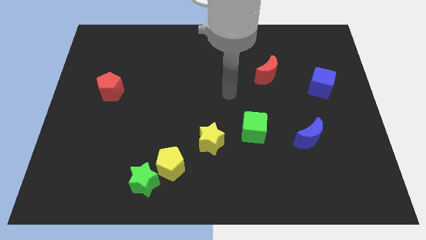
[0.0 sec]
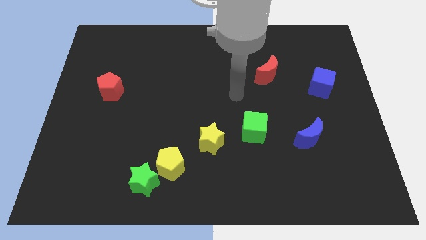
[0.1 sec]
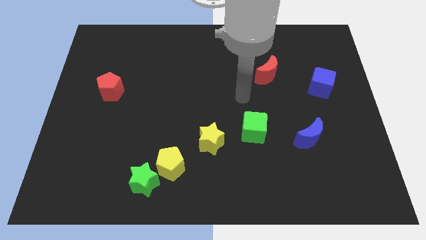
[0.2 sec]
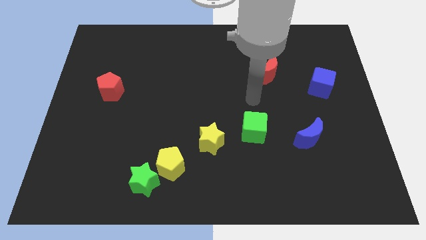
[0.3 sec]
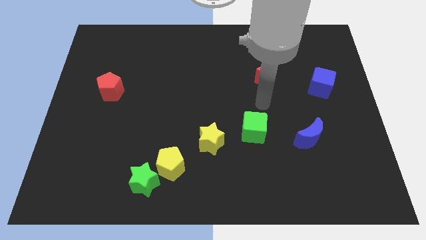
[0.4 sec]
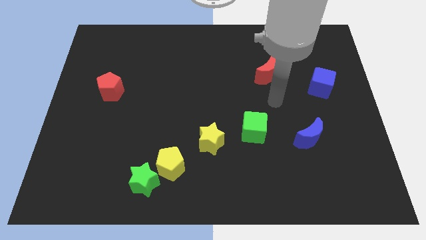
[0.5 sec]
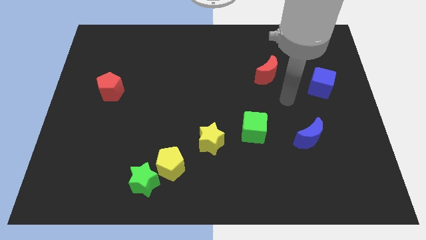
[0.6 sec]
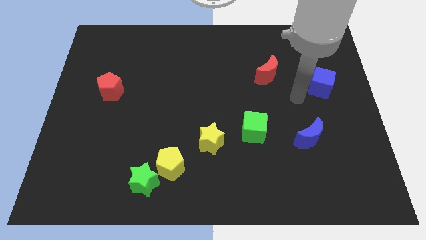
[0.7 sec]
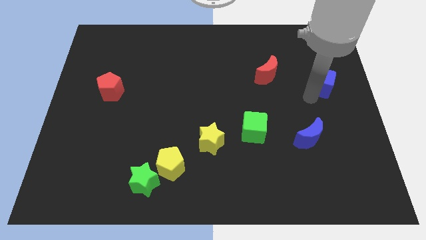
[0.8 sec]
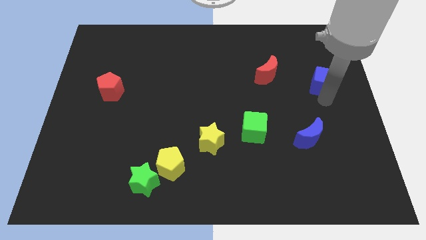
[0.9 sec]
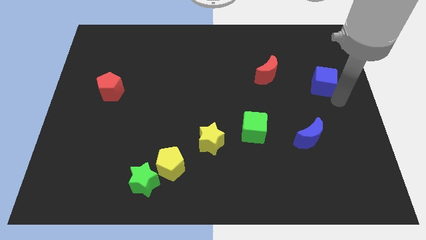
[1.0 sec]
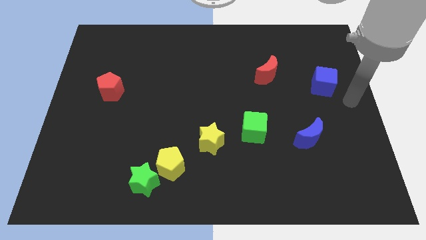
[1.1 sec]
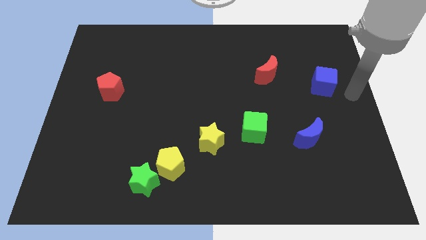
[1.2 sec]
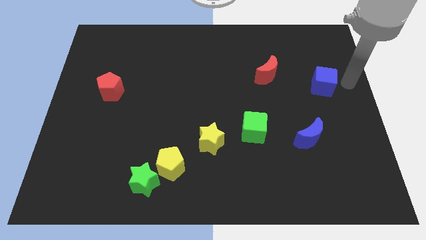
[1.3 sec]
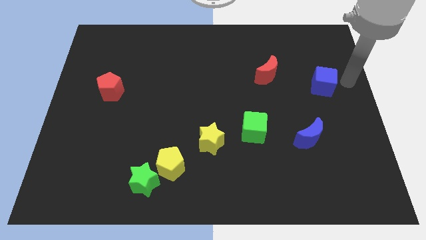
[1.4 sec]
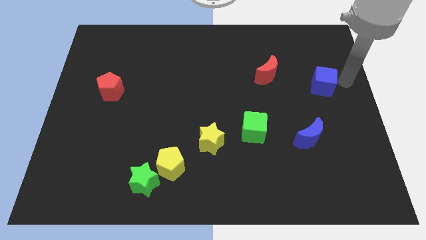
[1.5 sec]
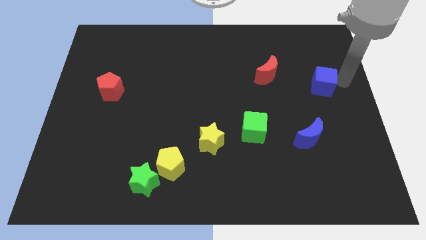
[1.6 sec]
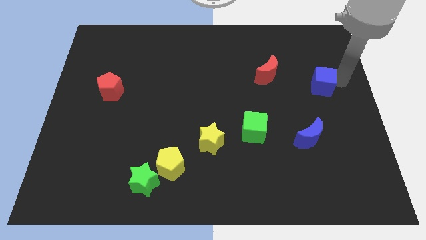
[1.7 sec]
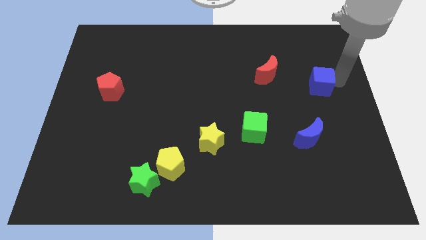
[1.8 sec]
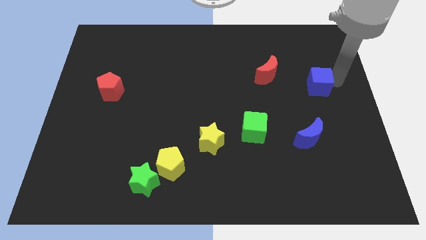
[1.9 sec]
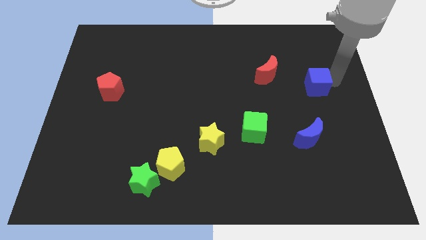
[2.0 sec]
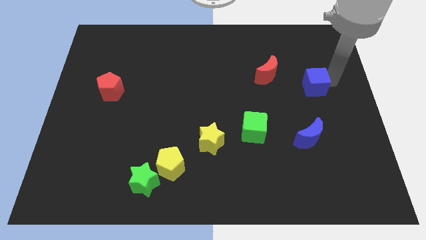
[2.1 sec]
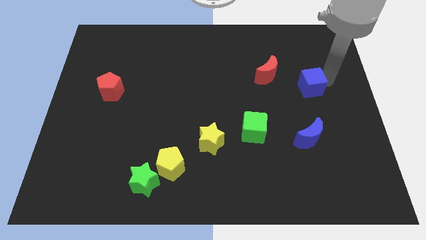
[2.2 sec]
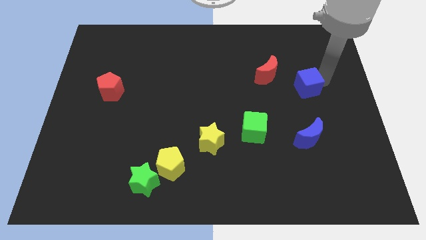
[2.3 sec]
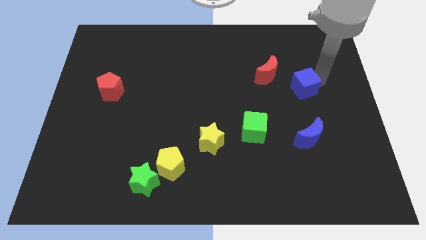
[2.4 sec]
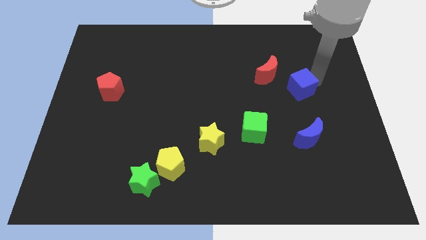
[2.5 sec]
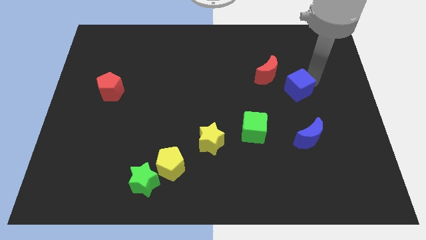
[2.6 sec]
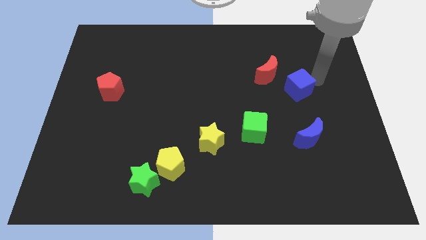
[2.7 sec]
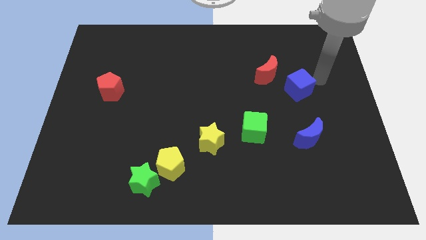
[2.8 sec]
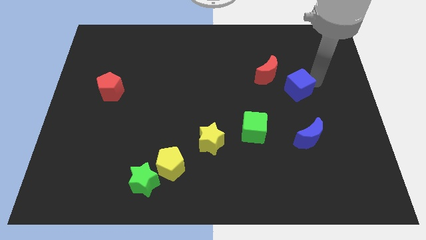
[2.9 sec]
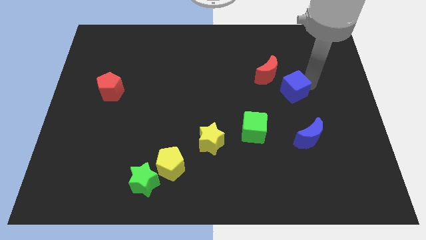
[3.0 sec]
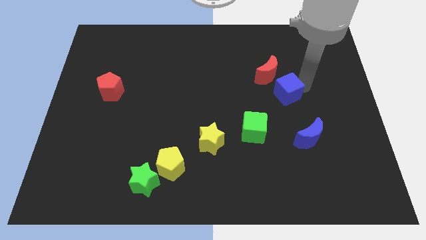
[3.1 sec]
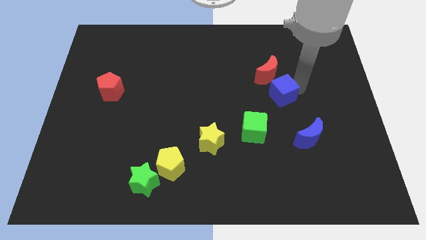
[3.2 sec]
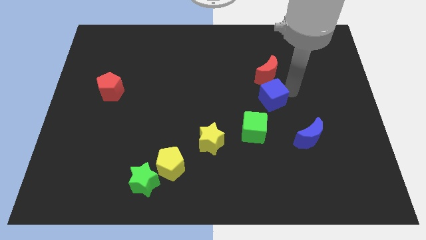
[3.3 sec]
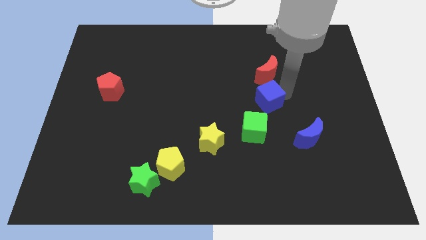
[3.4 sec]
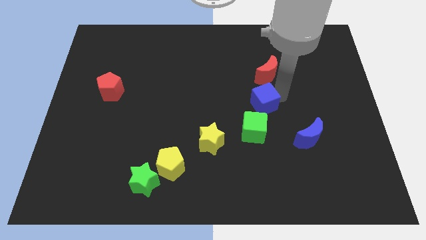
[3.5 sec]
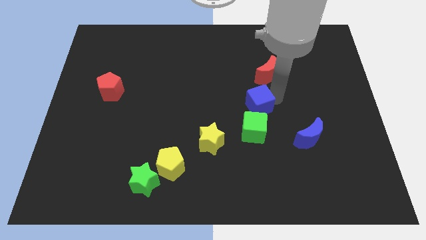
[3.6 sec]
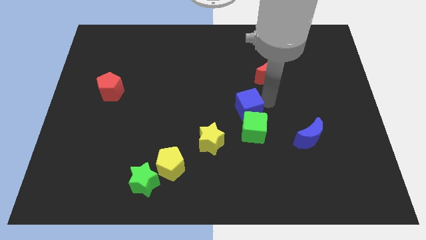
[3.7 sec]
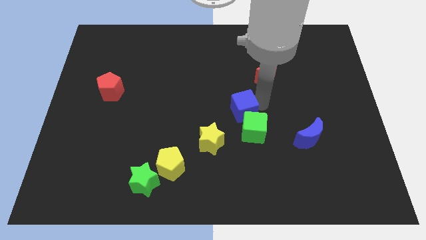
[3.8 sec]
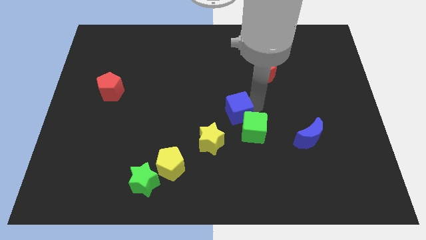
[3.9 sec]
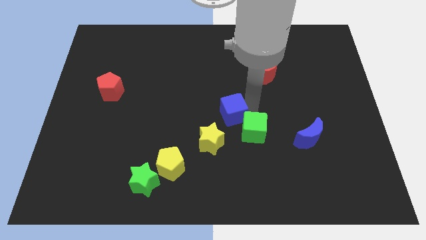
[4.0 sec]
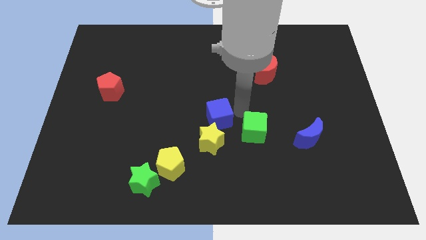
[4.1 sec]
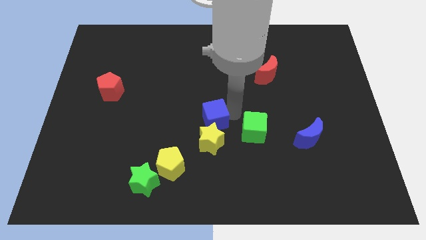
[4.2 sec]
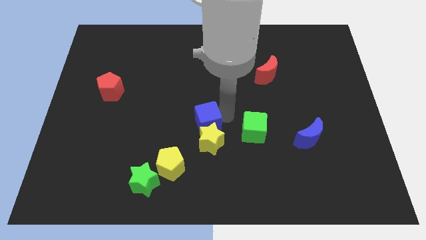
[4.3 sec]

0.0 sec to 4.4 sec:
put the blue cube to the top left of the yellow star

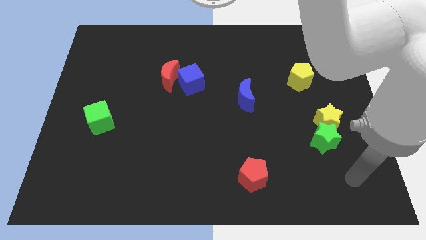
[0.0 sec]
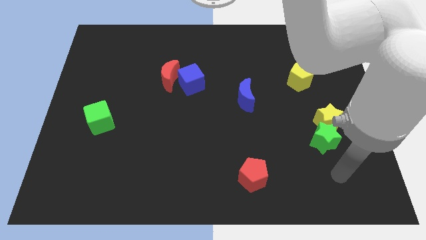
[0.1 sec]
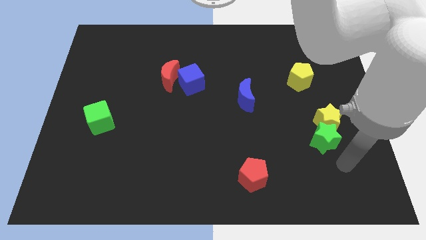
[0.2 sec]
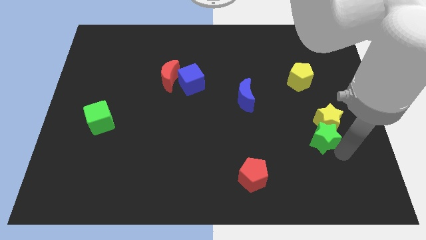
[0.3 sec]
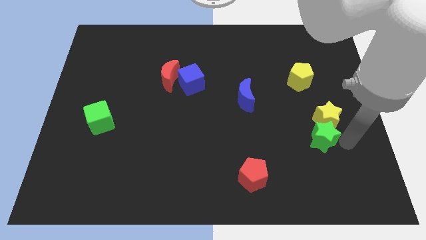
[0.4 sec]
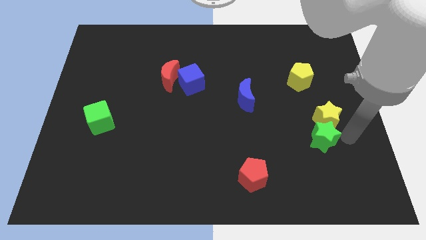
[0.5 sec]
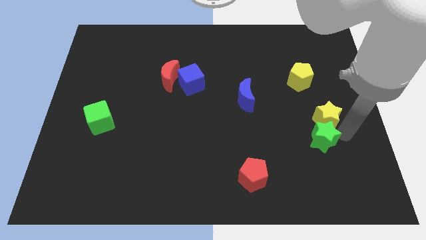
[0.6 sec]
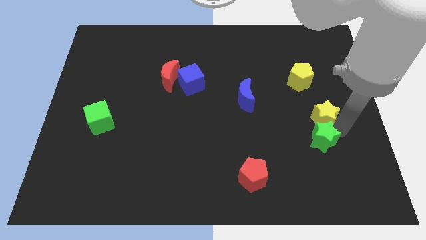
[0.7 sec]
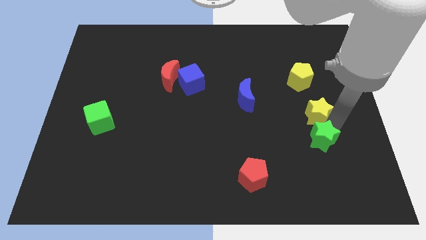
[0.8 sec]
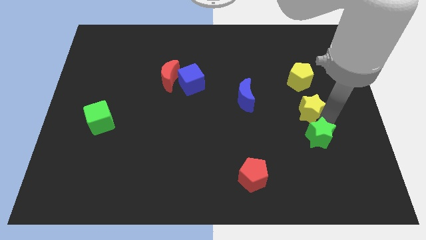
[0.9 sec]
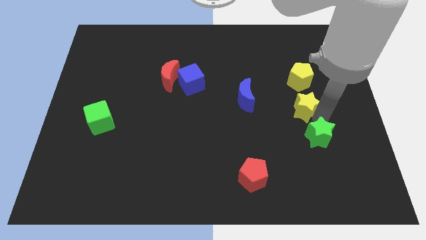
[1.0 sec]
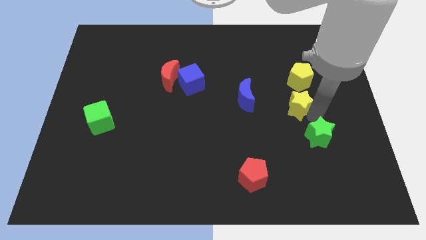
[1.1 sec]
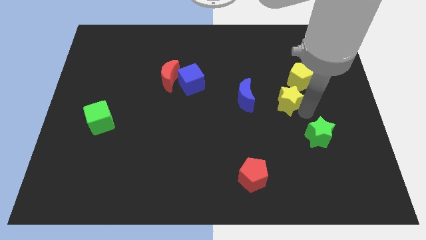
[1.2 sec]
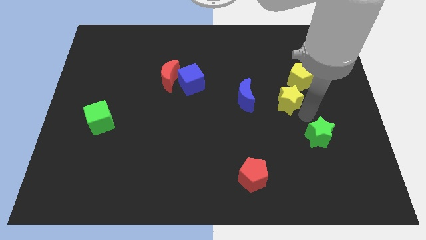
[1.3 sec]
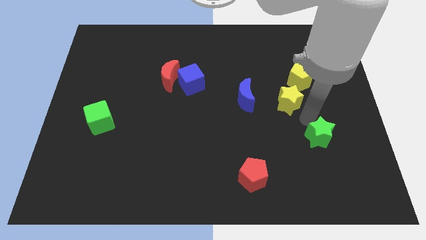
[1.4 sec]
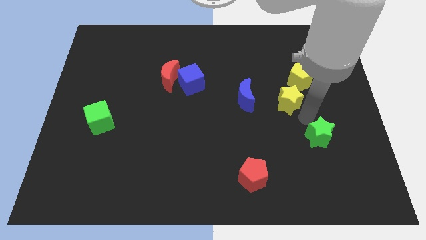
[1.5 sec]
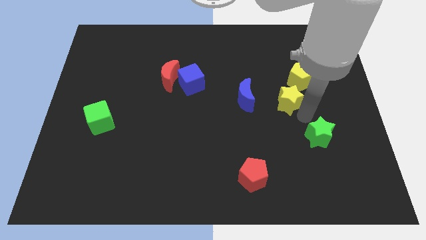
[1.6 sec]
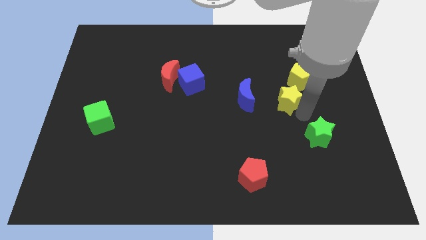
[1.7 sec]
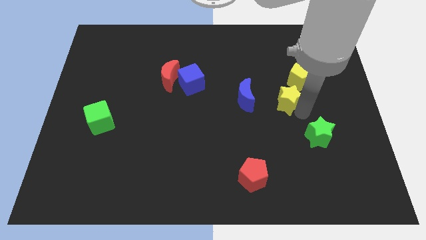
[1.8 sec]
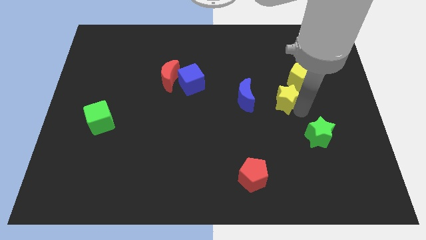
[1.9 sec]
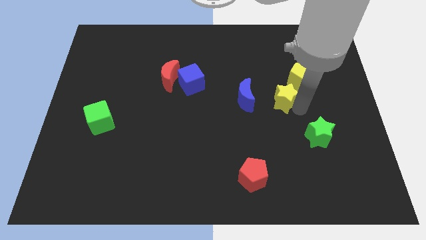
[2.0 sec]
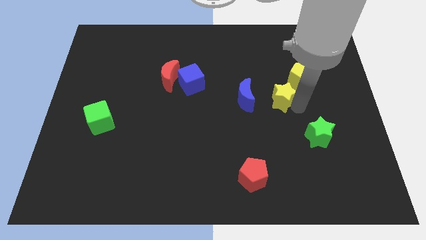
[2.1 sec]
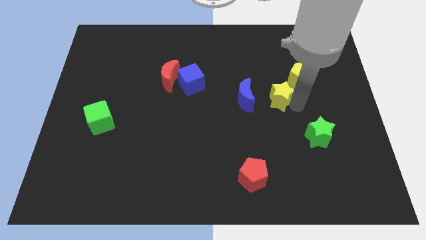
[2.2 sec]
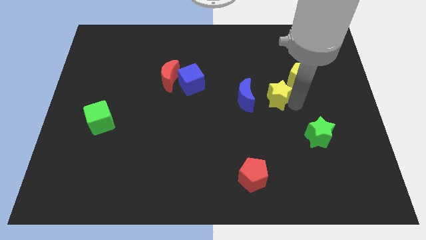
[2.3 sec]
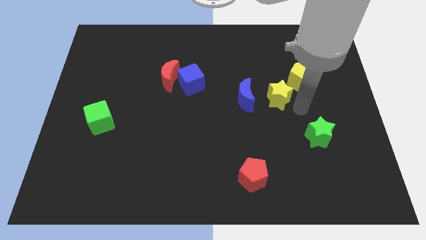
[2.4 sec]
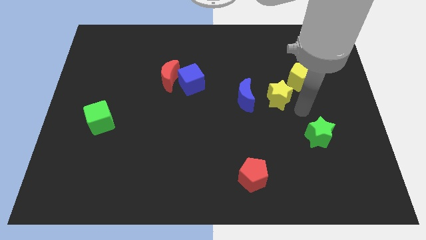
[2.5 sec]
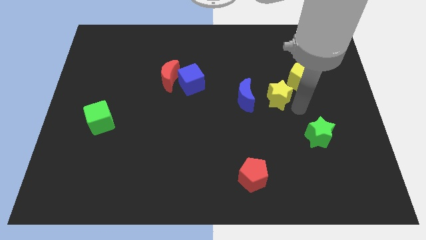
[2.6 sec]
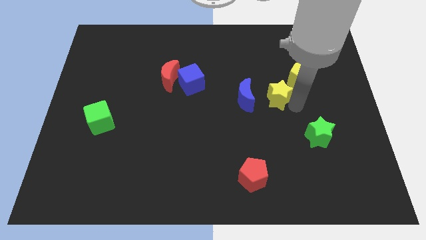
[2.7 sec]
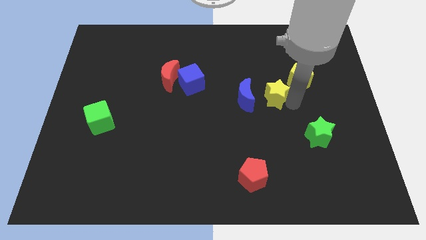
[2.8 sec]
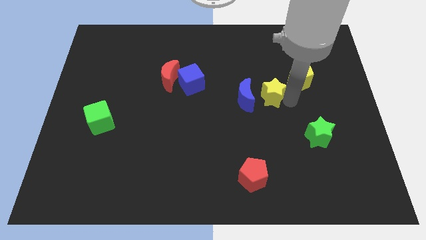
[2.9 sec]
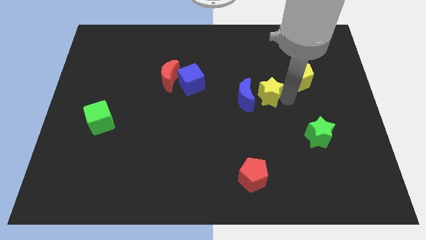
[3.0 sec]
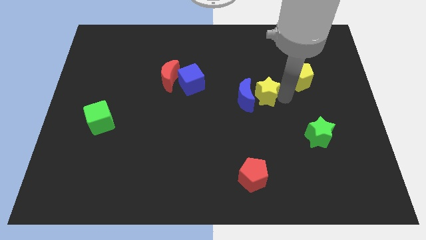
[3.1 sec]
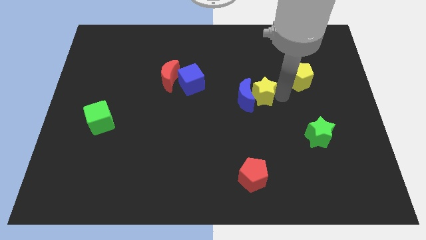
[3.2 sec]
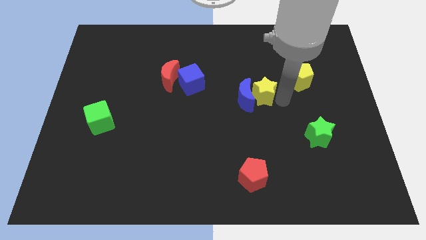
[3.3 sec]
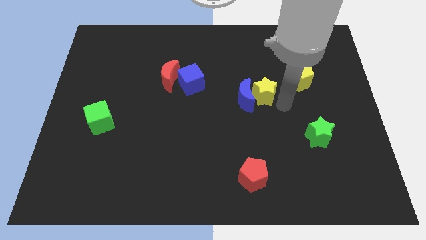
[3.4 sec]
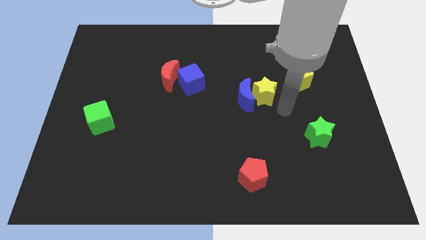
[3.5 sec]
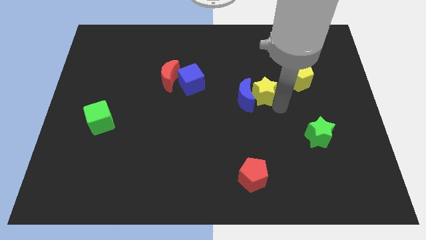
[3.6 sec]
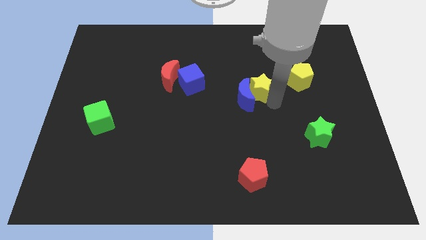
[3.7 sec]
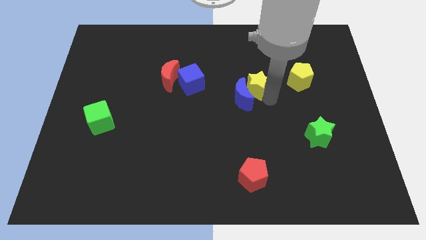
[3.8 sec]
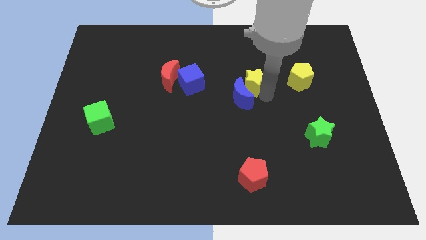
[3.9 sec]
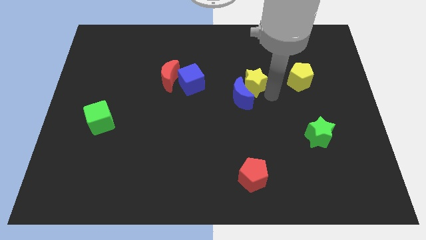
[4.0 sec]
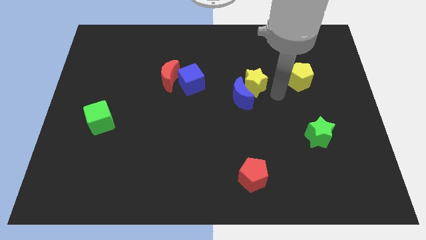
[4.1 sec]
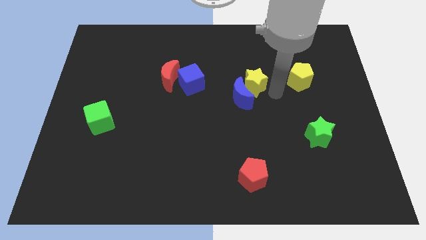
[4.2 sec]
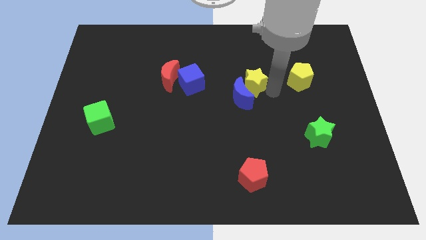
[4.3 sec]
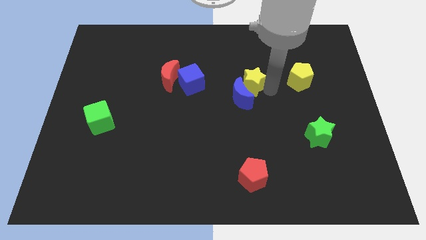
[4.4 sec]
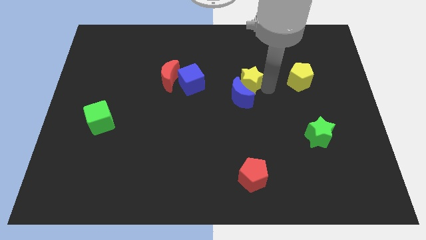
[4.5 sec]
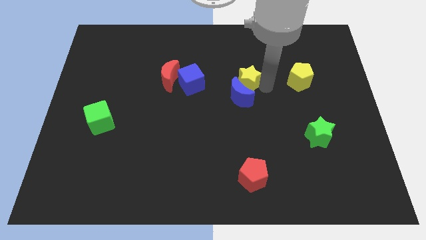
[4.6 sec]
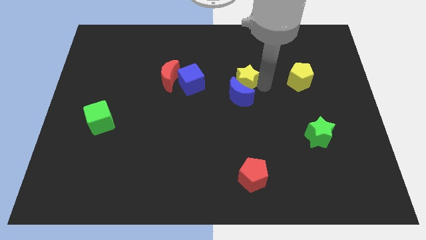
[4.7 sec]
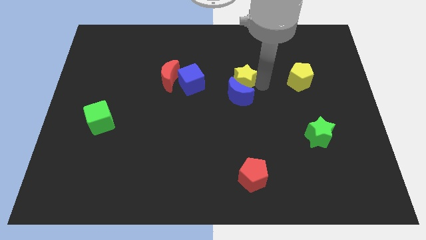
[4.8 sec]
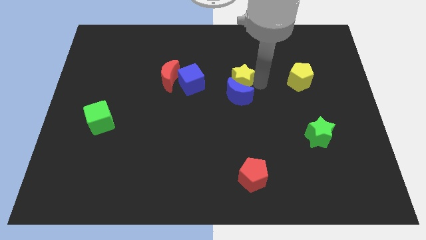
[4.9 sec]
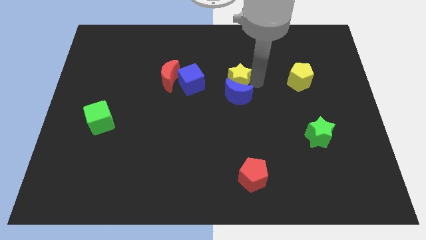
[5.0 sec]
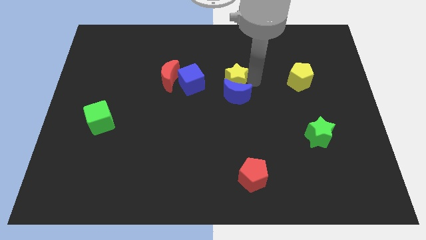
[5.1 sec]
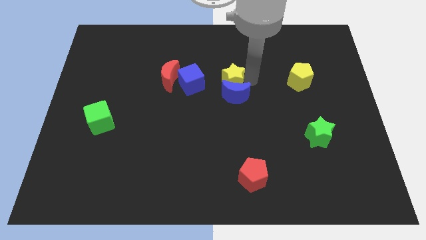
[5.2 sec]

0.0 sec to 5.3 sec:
move the yellow star right of the red moon
